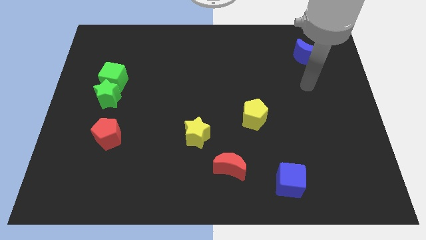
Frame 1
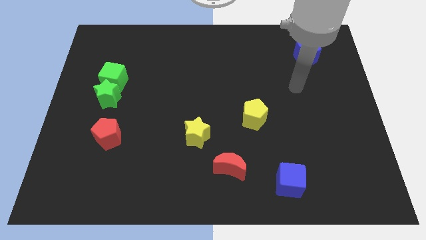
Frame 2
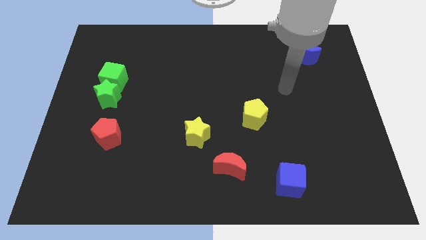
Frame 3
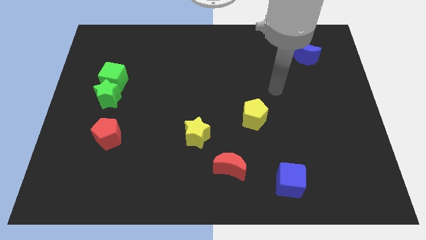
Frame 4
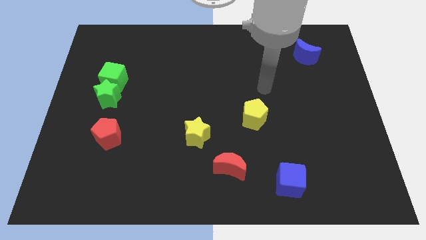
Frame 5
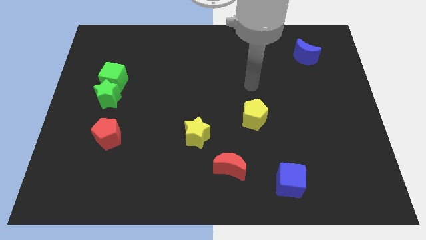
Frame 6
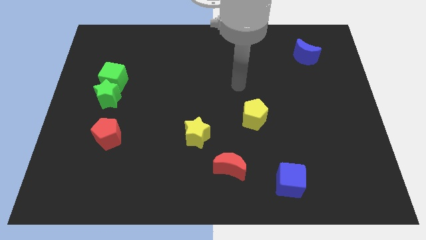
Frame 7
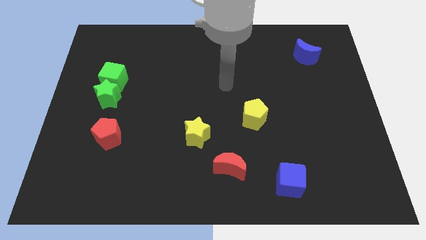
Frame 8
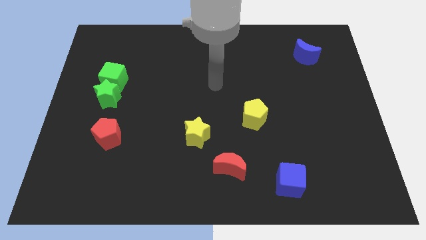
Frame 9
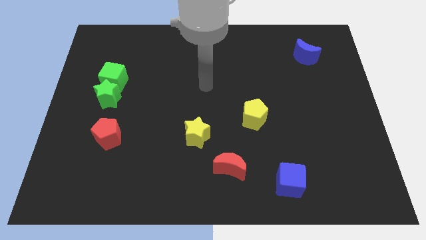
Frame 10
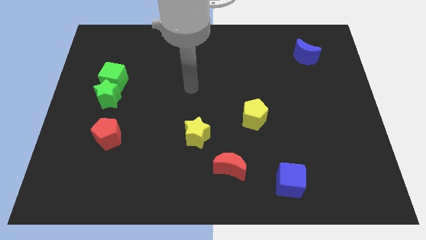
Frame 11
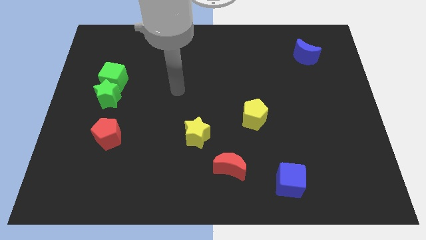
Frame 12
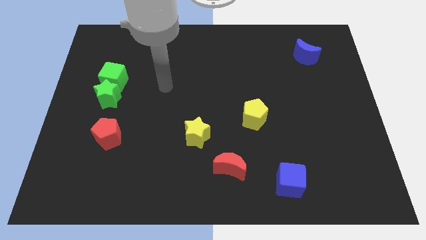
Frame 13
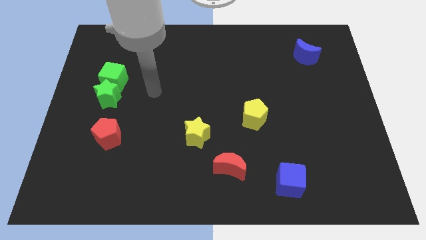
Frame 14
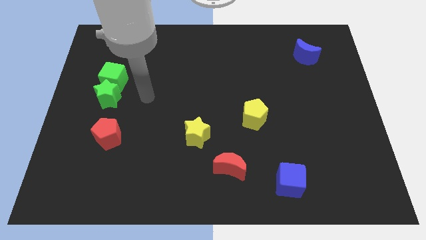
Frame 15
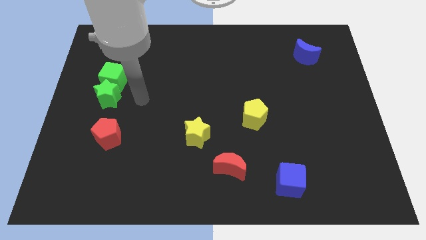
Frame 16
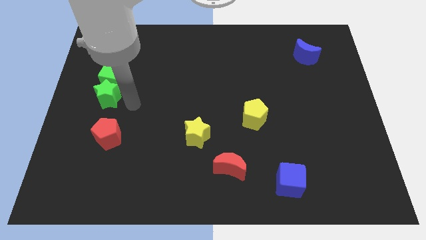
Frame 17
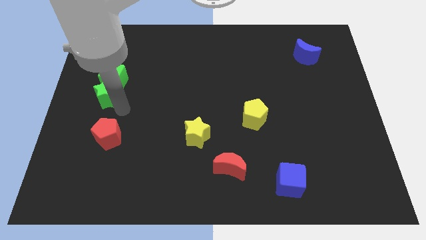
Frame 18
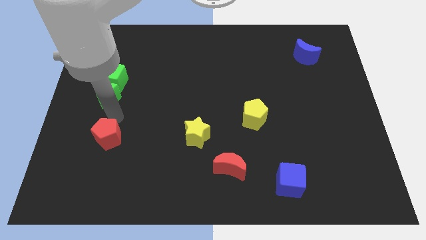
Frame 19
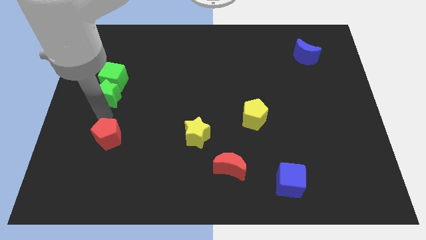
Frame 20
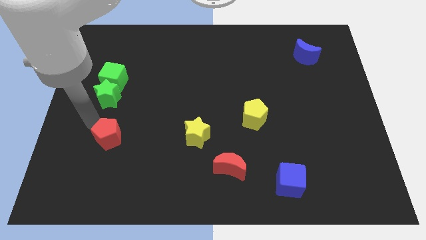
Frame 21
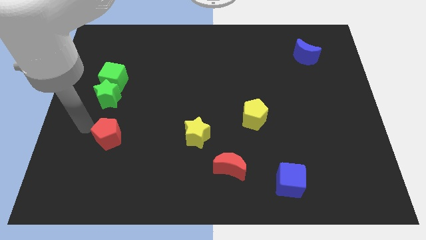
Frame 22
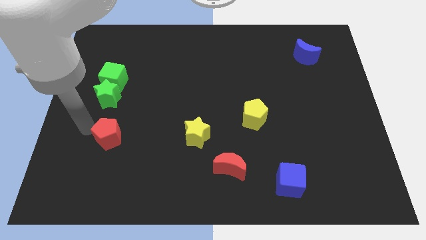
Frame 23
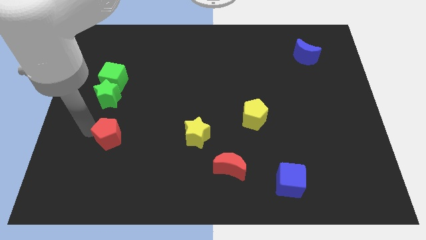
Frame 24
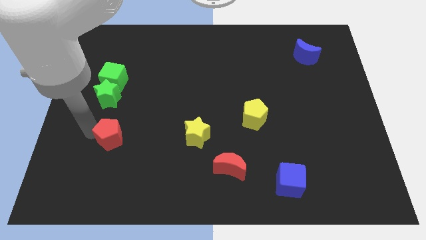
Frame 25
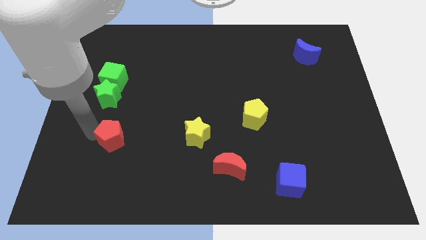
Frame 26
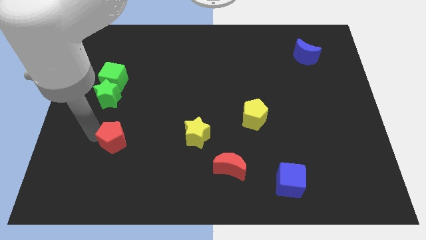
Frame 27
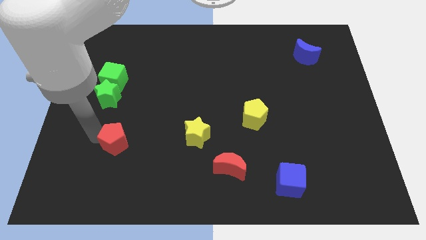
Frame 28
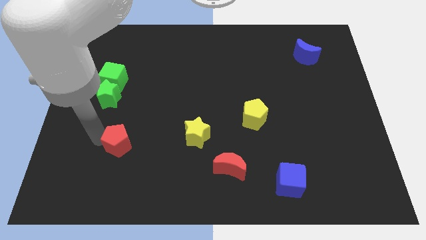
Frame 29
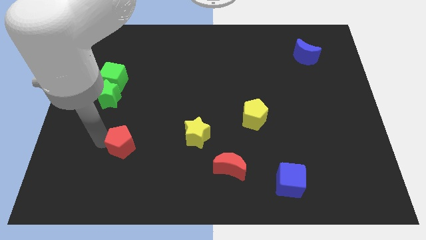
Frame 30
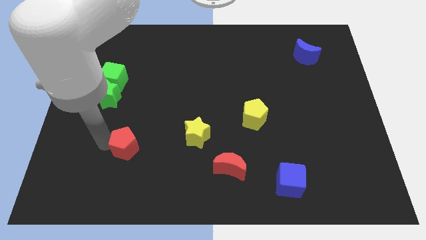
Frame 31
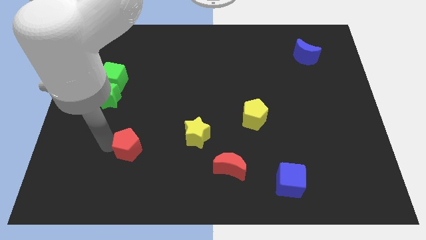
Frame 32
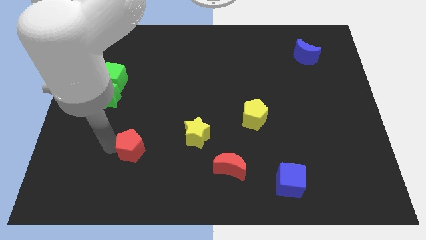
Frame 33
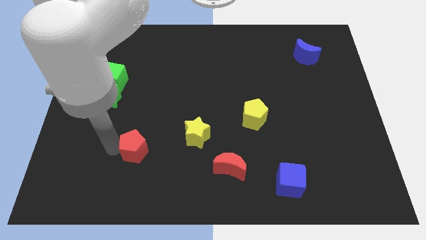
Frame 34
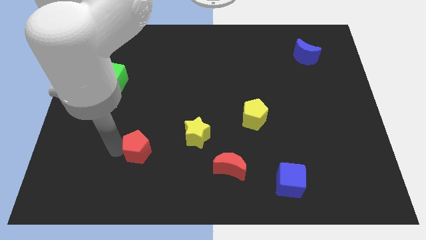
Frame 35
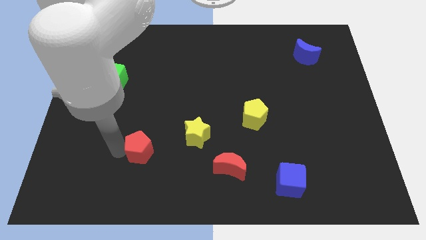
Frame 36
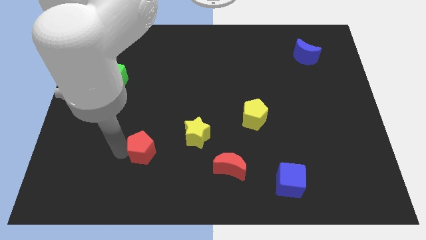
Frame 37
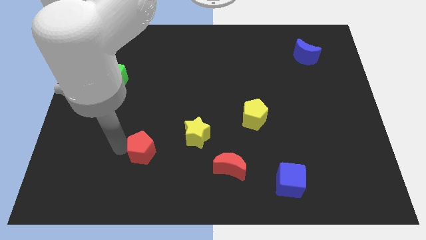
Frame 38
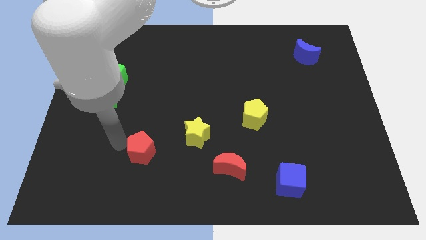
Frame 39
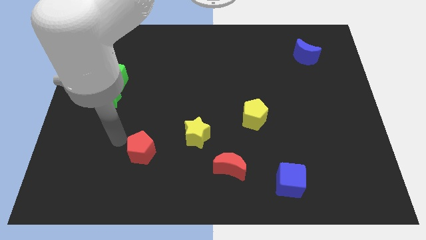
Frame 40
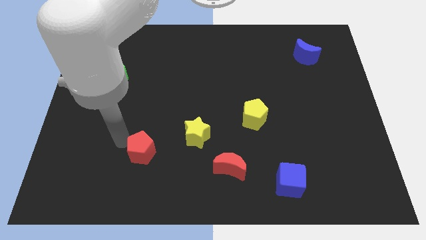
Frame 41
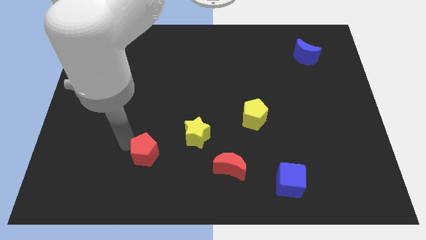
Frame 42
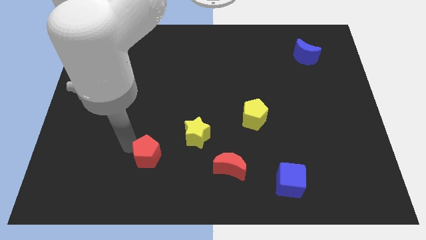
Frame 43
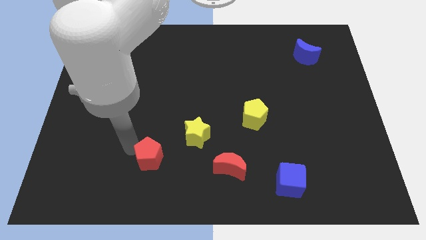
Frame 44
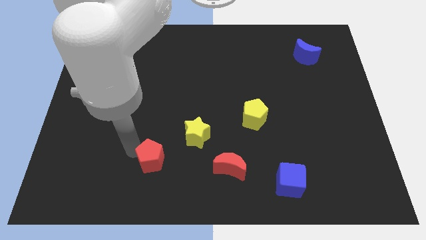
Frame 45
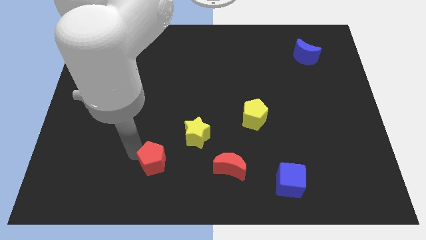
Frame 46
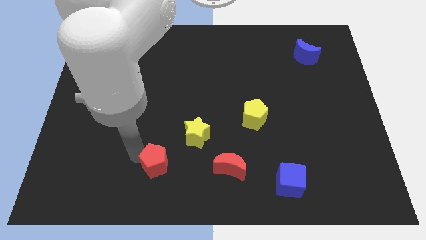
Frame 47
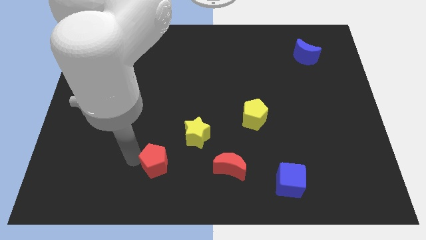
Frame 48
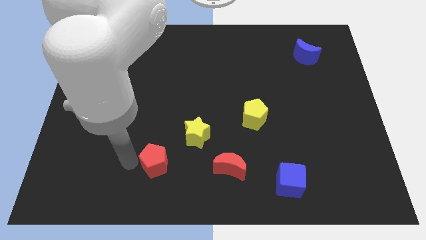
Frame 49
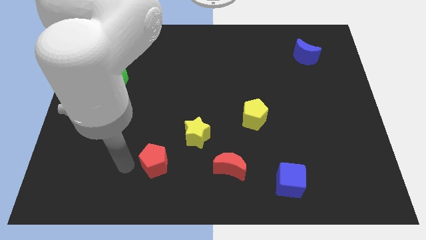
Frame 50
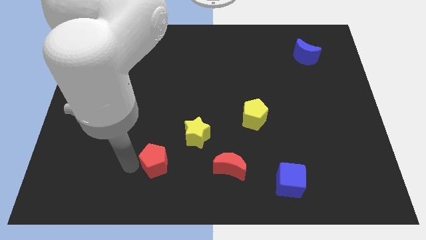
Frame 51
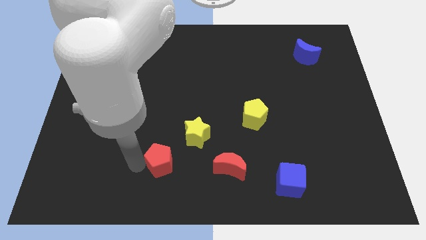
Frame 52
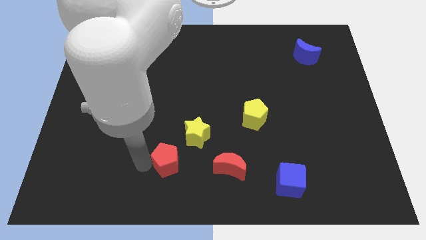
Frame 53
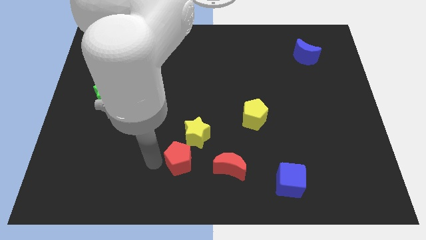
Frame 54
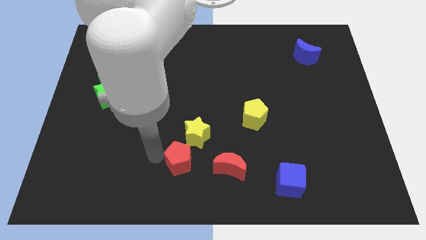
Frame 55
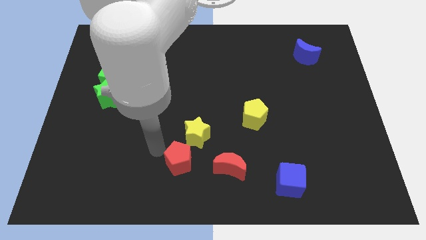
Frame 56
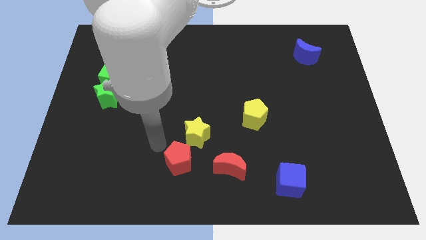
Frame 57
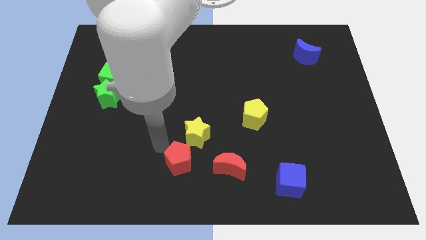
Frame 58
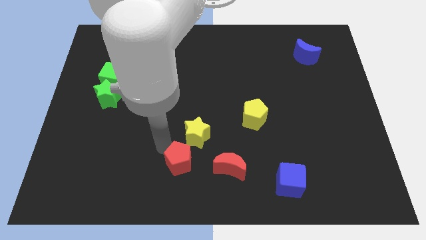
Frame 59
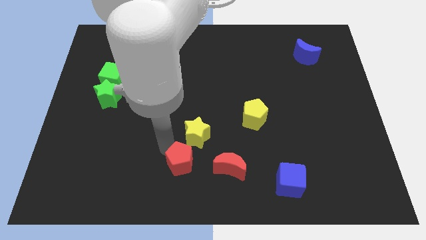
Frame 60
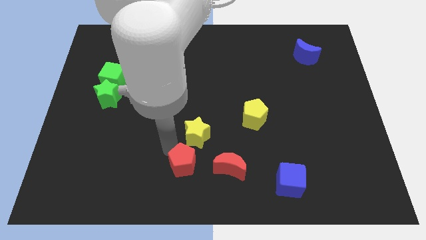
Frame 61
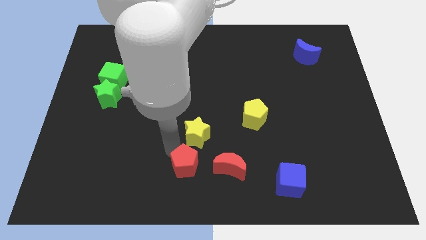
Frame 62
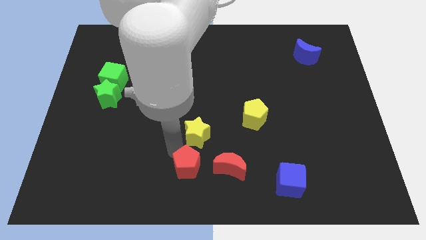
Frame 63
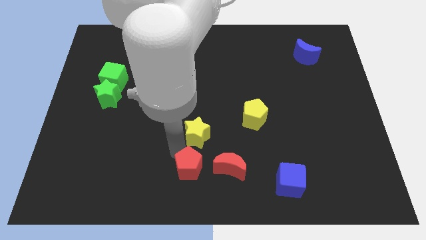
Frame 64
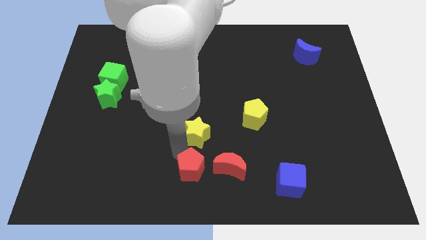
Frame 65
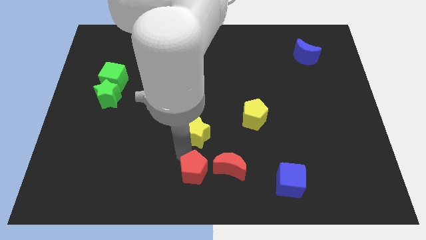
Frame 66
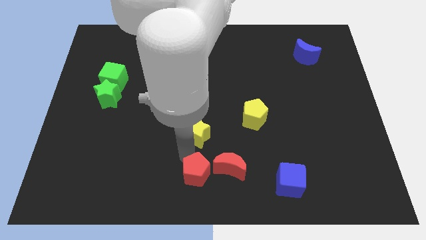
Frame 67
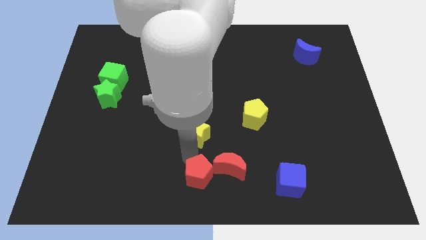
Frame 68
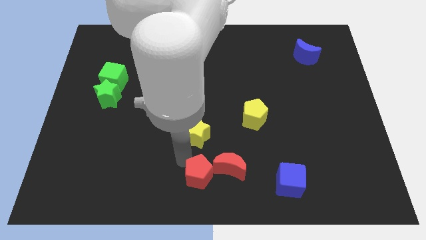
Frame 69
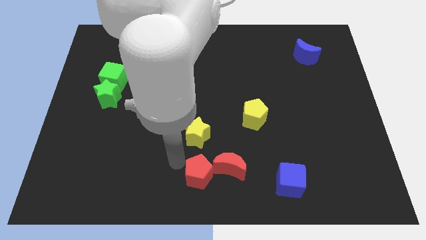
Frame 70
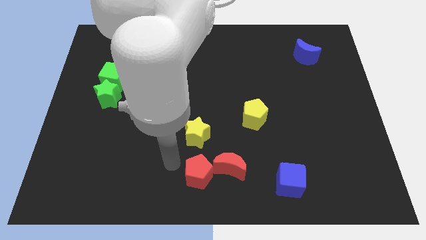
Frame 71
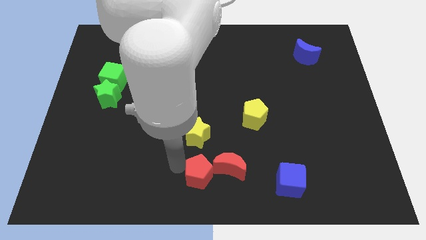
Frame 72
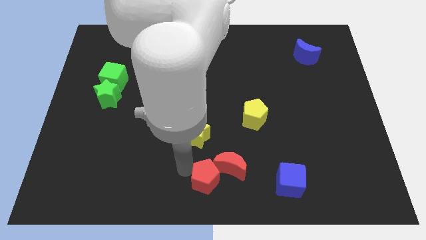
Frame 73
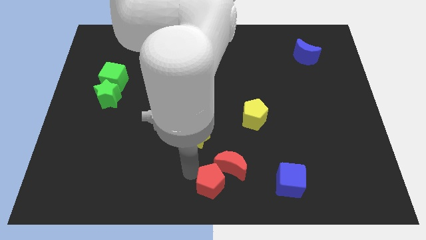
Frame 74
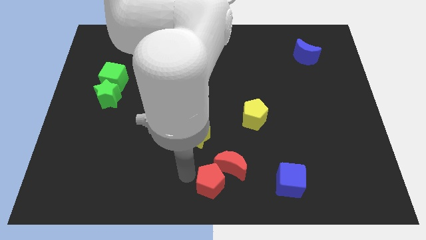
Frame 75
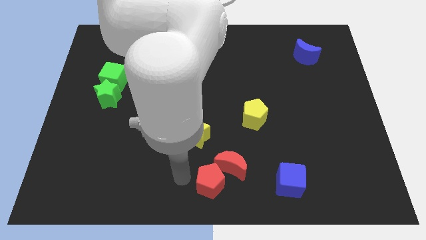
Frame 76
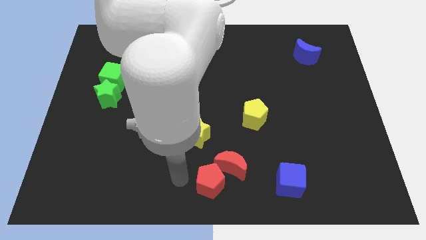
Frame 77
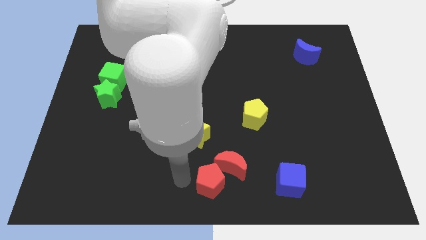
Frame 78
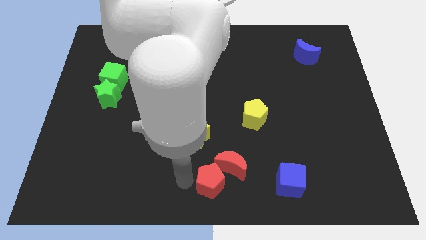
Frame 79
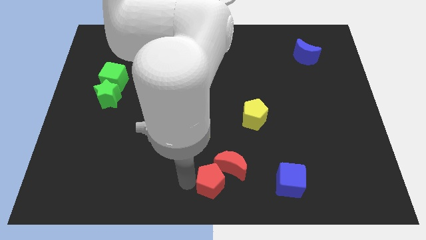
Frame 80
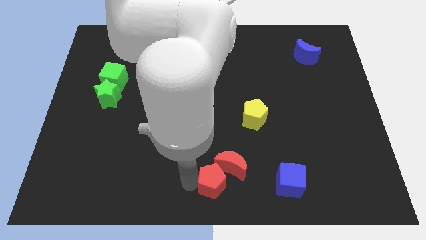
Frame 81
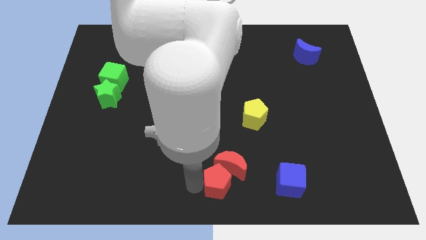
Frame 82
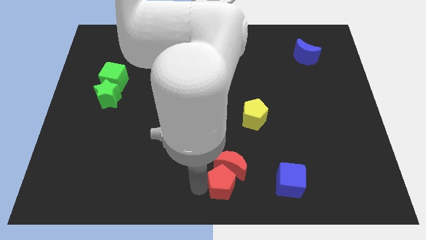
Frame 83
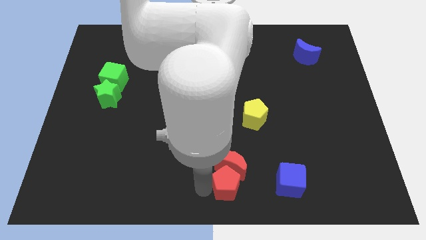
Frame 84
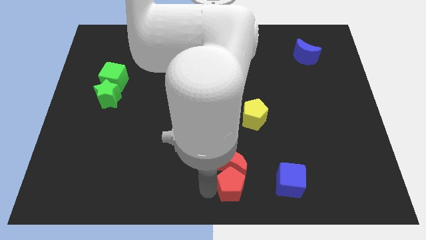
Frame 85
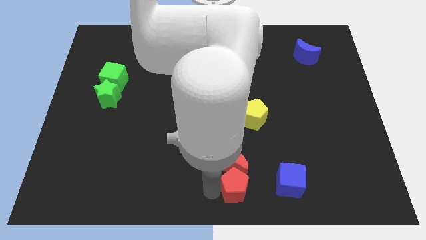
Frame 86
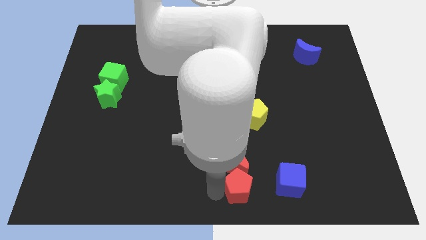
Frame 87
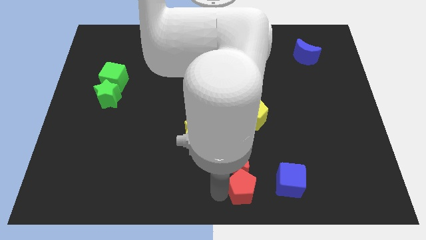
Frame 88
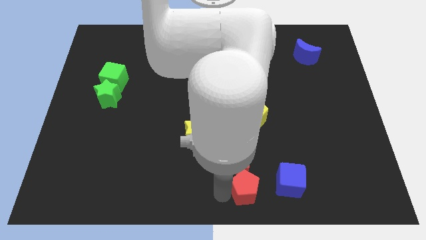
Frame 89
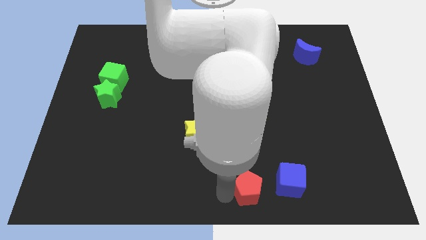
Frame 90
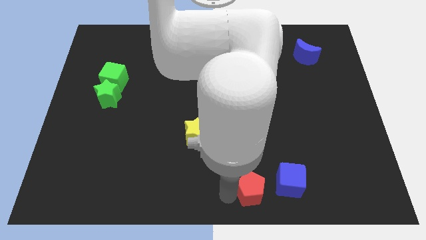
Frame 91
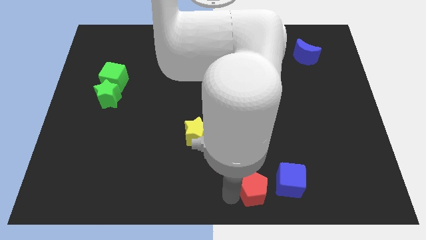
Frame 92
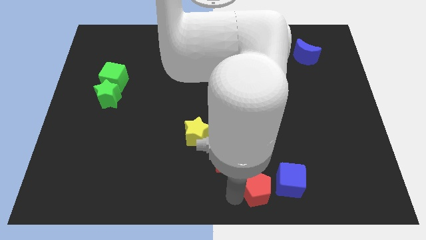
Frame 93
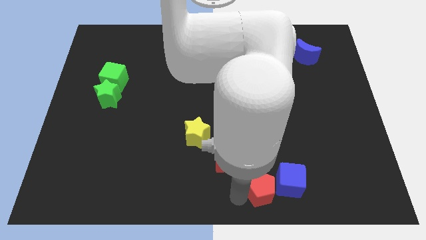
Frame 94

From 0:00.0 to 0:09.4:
slide the red pentagon close to the blue cube
